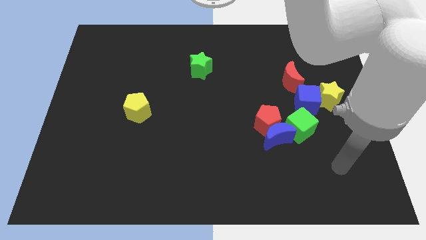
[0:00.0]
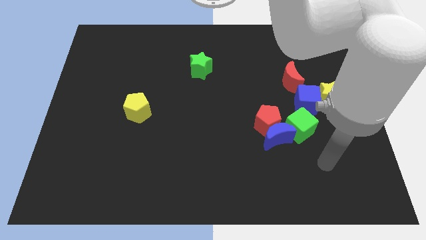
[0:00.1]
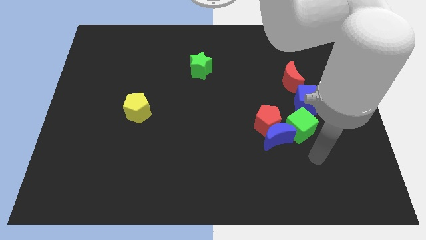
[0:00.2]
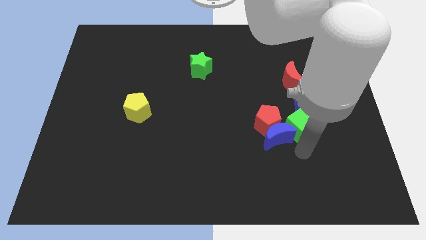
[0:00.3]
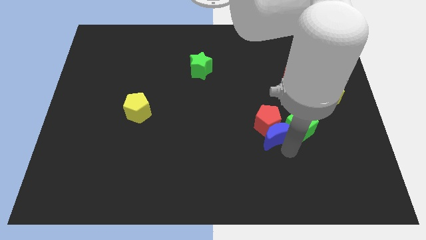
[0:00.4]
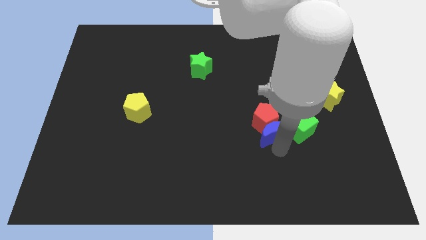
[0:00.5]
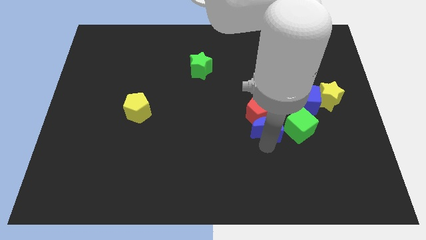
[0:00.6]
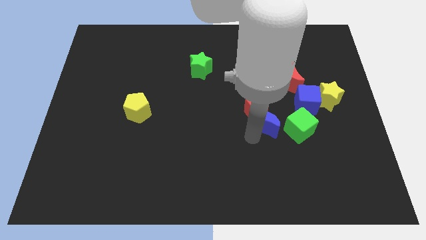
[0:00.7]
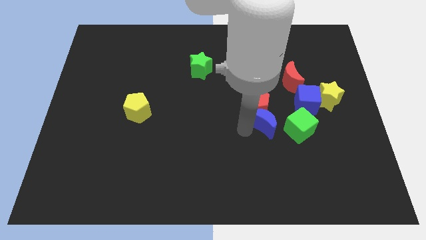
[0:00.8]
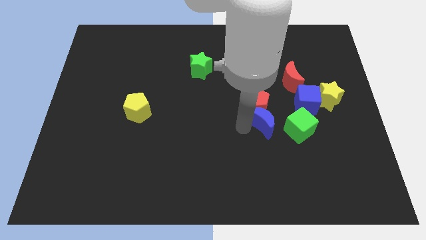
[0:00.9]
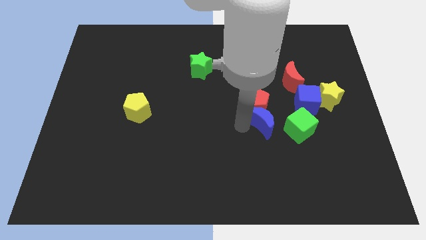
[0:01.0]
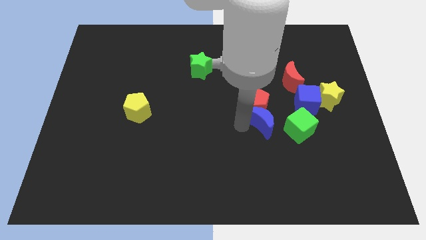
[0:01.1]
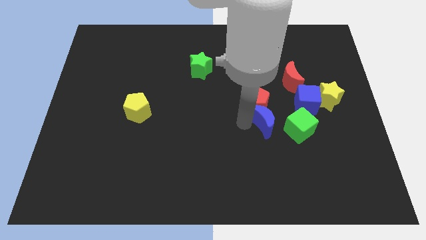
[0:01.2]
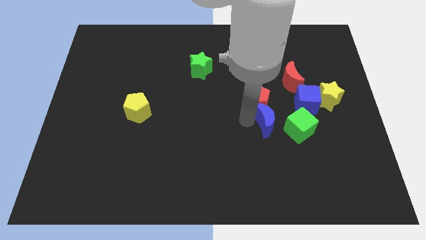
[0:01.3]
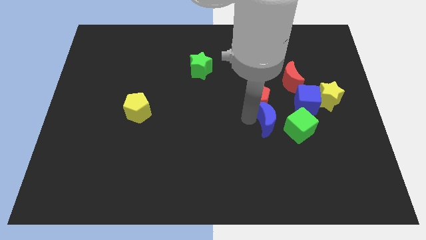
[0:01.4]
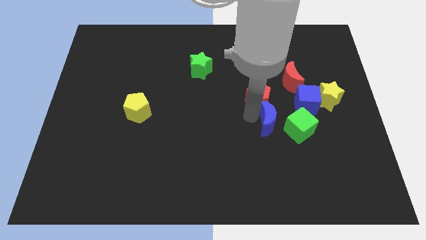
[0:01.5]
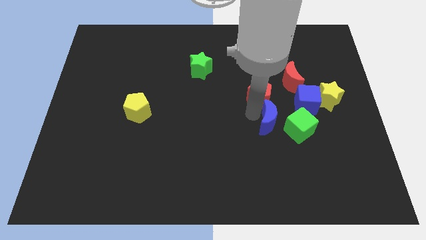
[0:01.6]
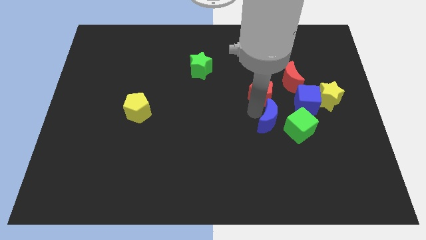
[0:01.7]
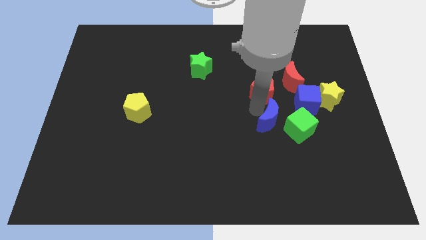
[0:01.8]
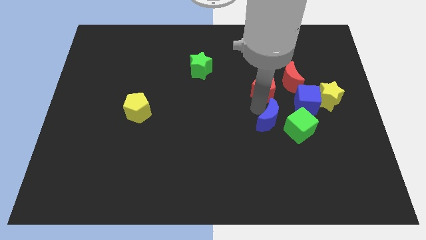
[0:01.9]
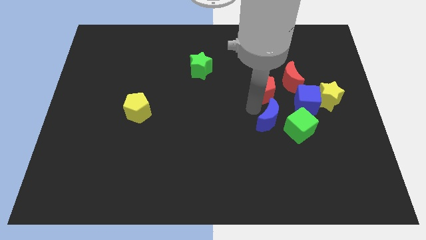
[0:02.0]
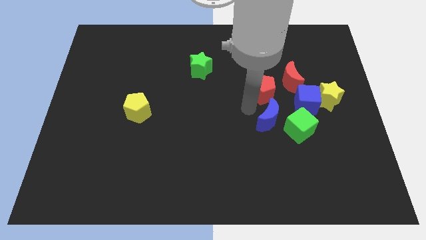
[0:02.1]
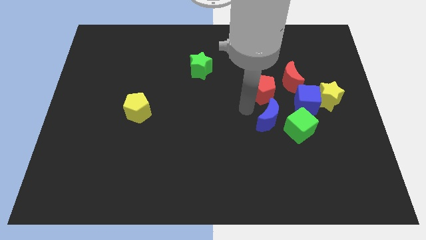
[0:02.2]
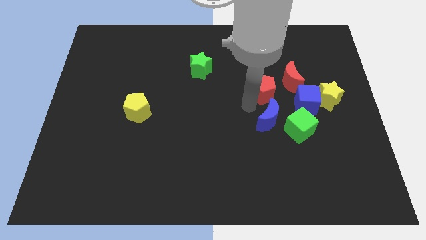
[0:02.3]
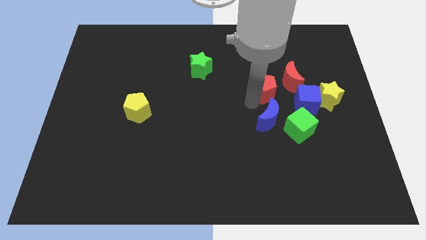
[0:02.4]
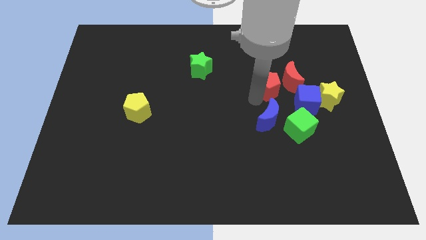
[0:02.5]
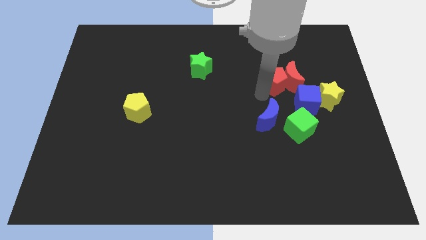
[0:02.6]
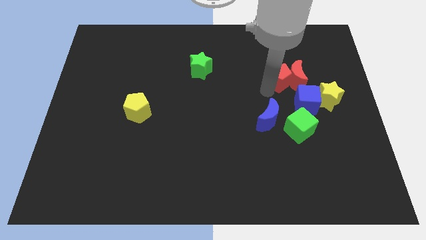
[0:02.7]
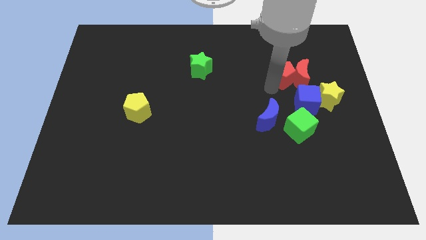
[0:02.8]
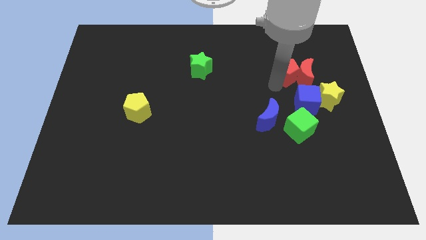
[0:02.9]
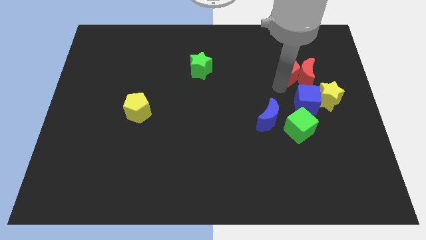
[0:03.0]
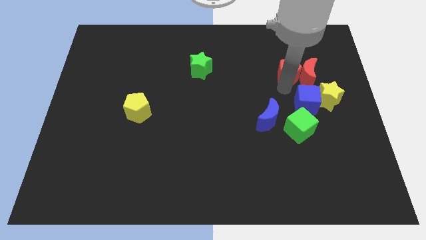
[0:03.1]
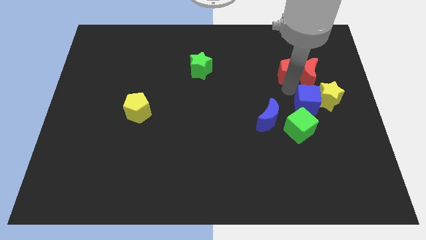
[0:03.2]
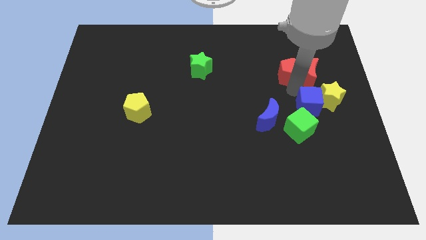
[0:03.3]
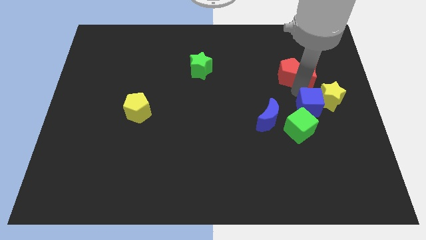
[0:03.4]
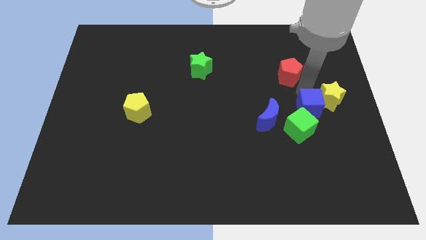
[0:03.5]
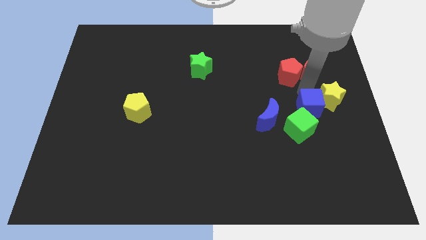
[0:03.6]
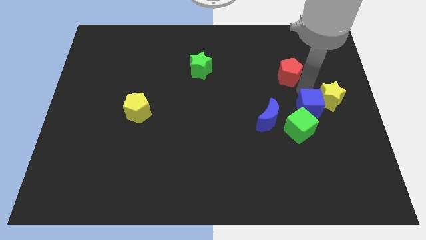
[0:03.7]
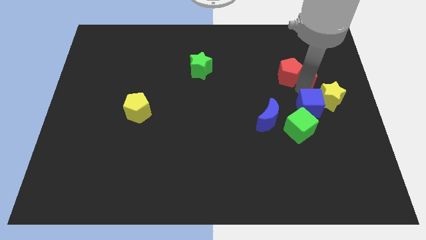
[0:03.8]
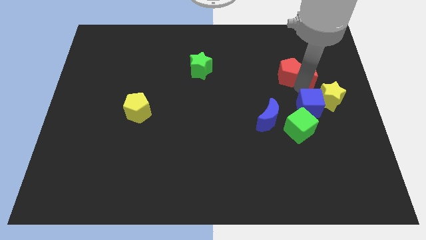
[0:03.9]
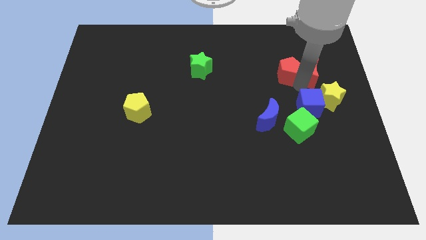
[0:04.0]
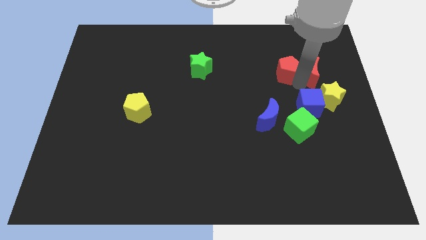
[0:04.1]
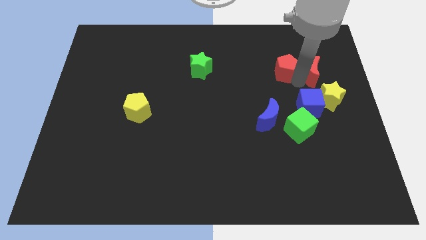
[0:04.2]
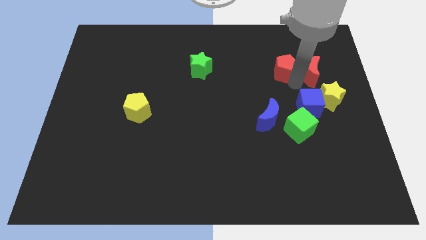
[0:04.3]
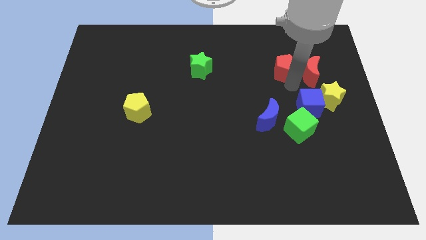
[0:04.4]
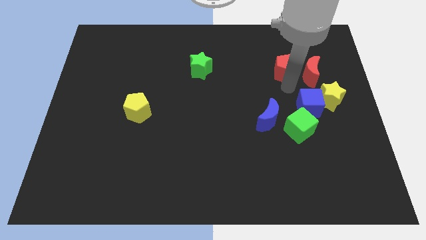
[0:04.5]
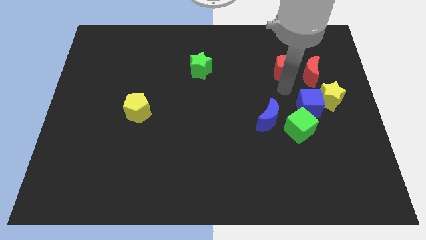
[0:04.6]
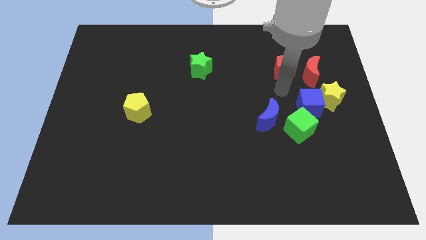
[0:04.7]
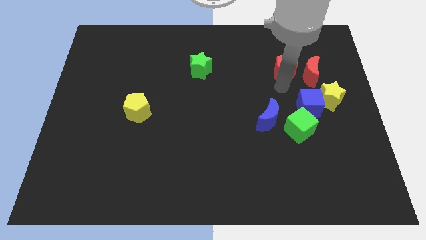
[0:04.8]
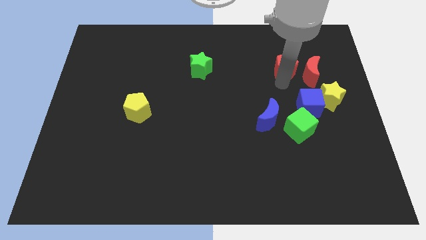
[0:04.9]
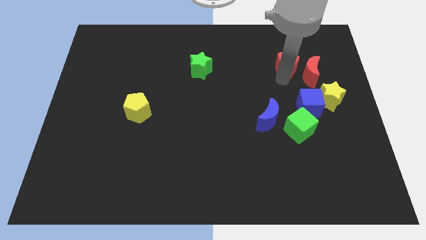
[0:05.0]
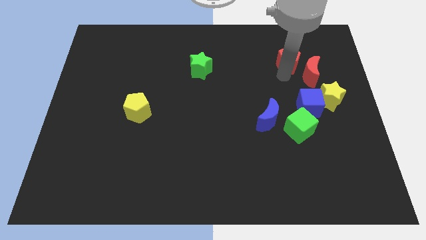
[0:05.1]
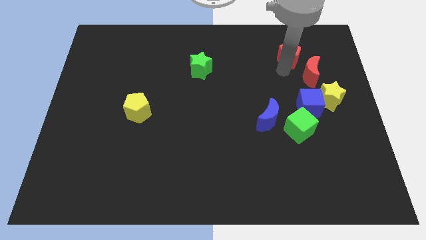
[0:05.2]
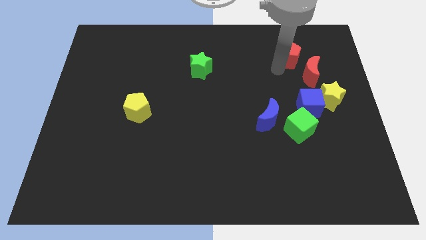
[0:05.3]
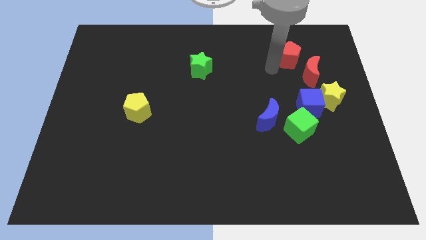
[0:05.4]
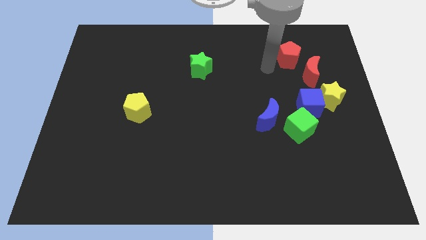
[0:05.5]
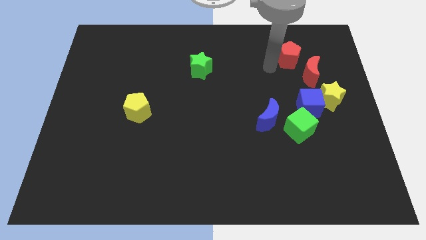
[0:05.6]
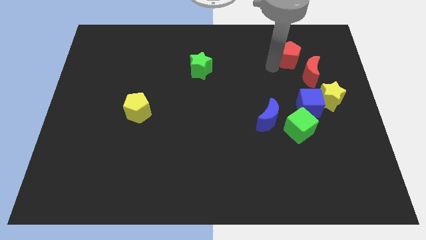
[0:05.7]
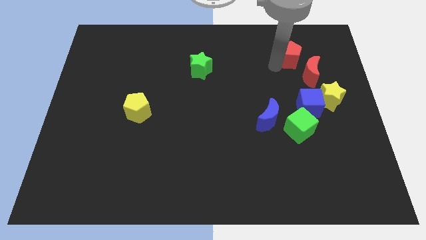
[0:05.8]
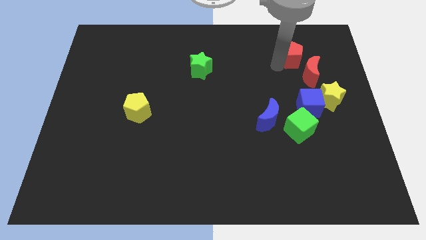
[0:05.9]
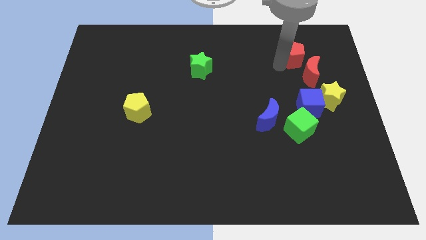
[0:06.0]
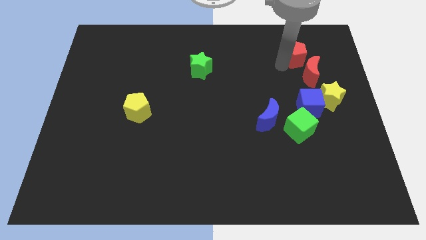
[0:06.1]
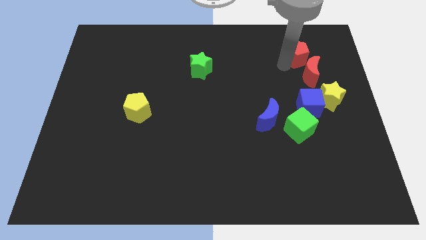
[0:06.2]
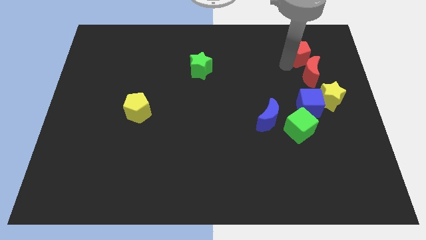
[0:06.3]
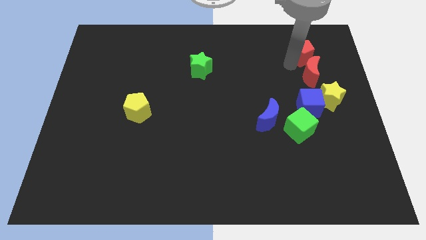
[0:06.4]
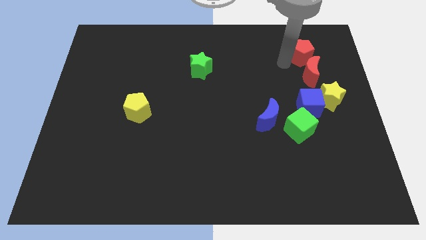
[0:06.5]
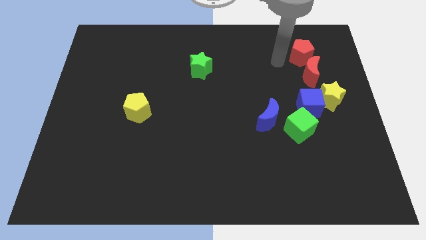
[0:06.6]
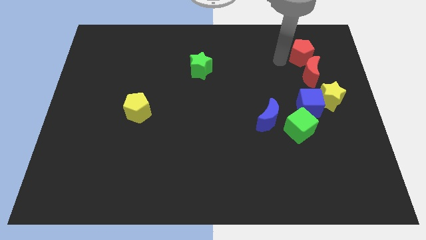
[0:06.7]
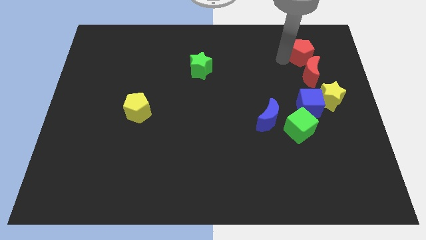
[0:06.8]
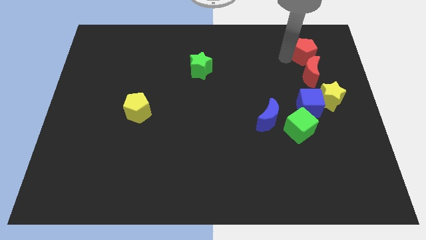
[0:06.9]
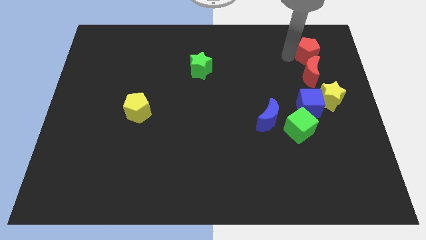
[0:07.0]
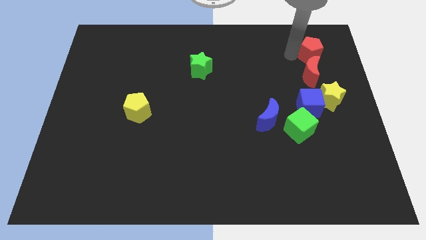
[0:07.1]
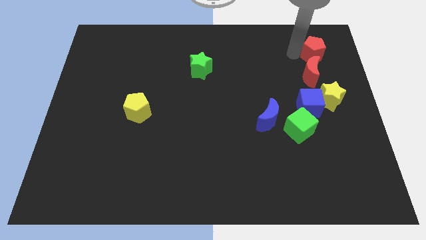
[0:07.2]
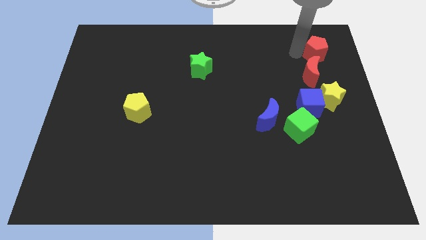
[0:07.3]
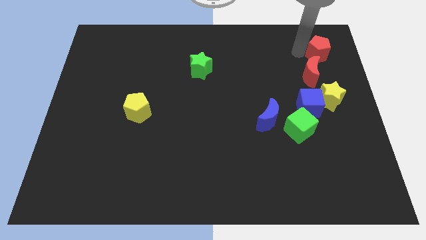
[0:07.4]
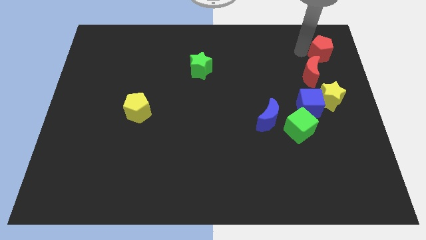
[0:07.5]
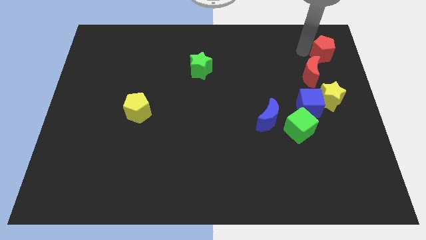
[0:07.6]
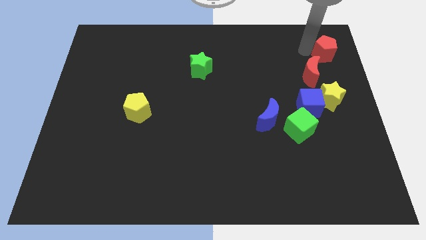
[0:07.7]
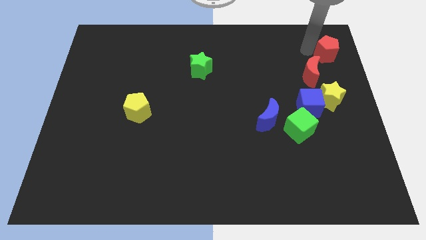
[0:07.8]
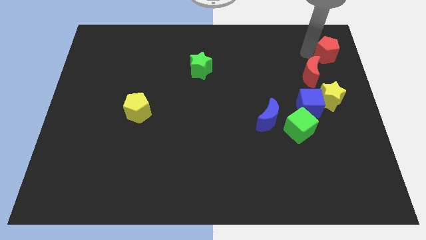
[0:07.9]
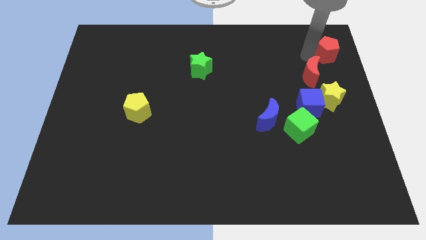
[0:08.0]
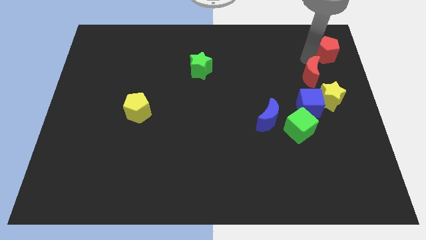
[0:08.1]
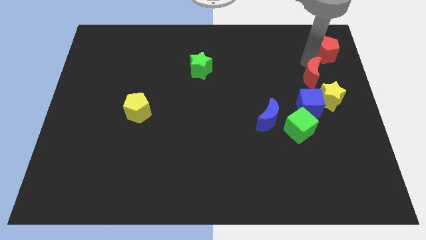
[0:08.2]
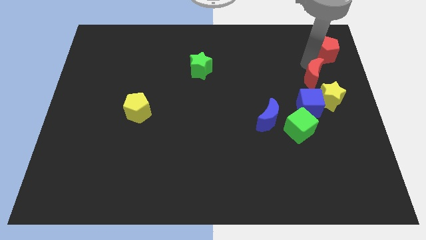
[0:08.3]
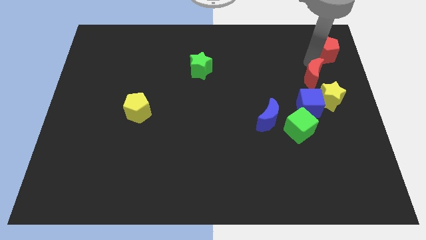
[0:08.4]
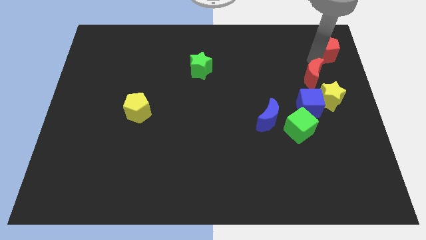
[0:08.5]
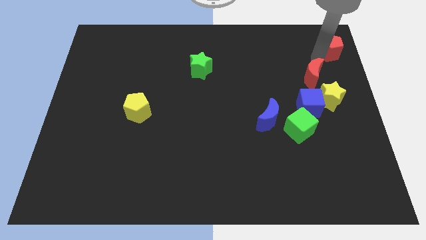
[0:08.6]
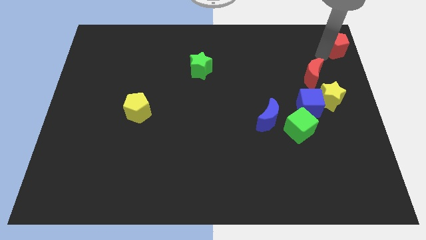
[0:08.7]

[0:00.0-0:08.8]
slide the red pentagon to the upper right corner
